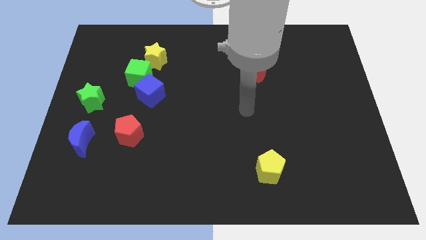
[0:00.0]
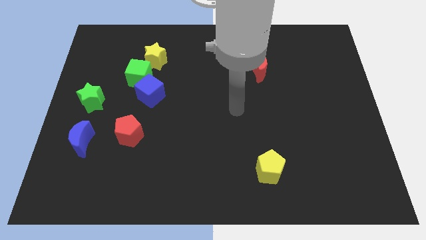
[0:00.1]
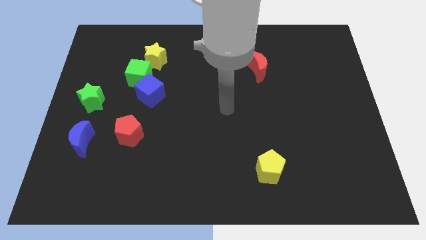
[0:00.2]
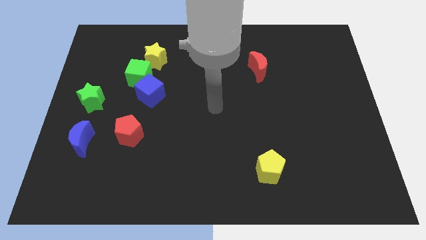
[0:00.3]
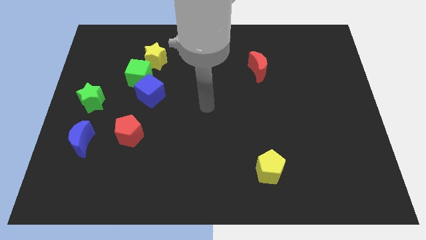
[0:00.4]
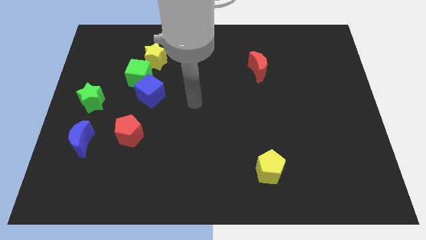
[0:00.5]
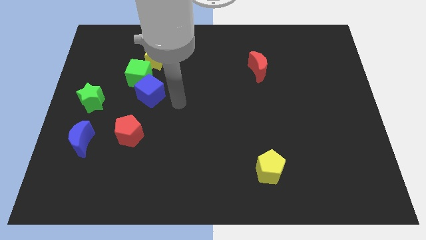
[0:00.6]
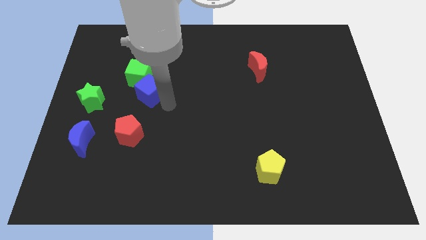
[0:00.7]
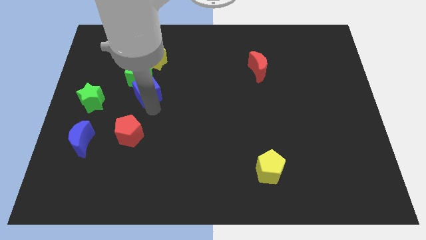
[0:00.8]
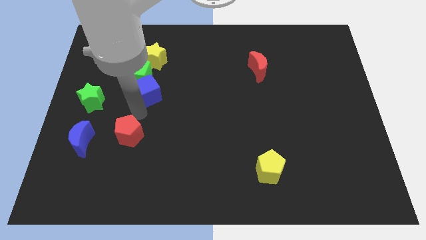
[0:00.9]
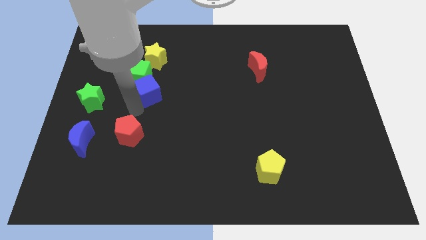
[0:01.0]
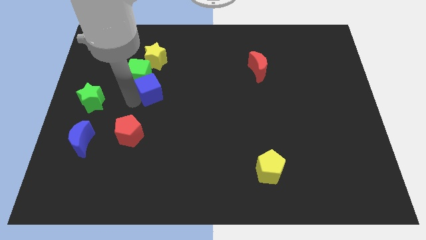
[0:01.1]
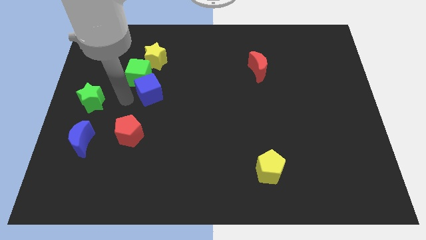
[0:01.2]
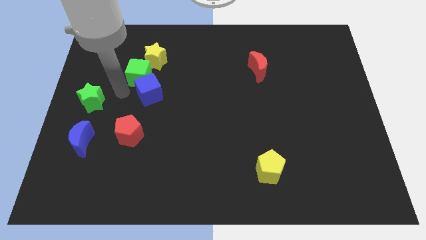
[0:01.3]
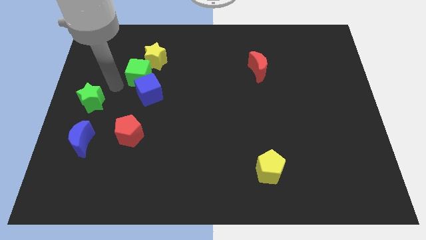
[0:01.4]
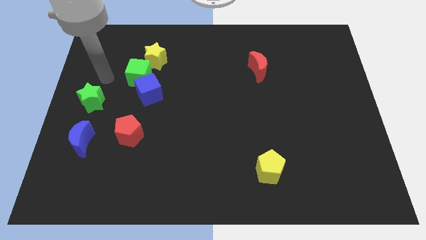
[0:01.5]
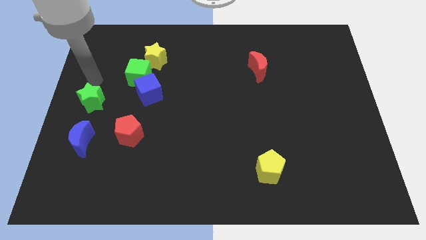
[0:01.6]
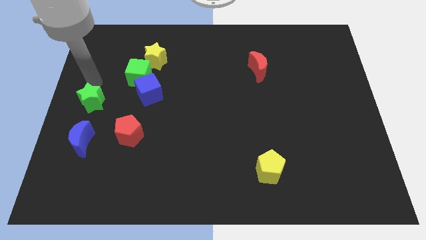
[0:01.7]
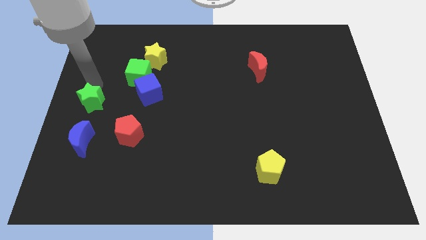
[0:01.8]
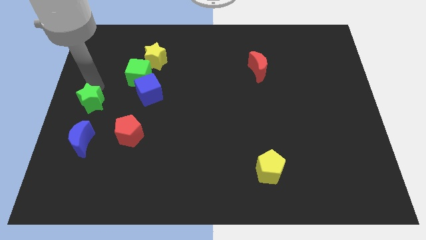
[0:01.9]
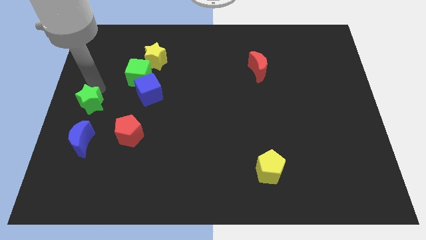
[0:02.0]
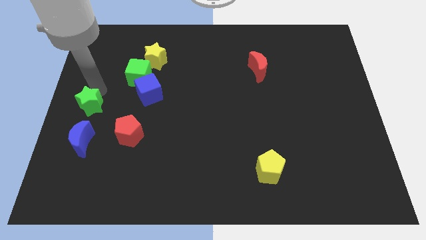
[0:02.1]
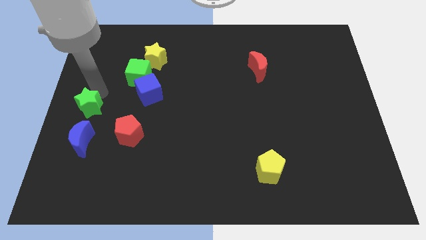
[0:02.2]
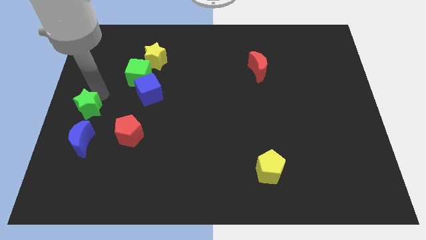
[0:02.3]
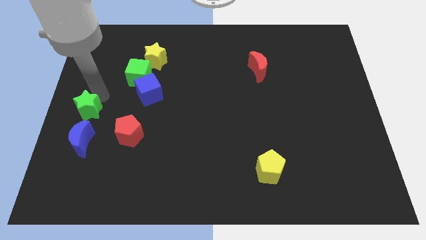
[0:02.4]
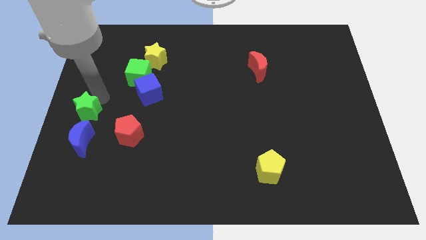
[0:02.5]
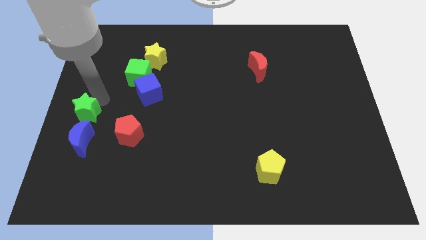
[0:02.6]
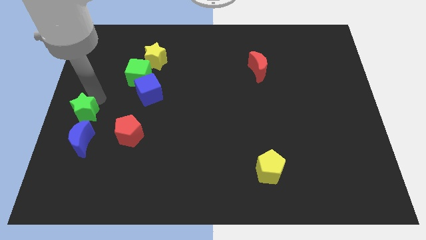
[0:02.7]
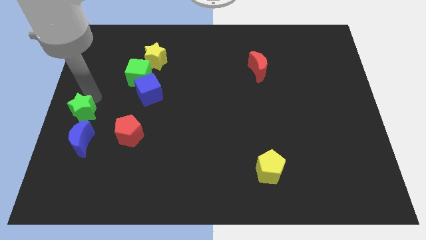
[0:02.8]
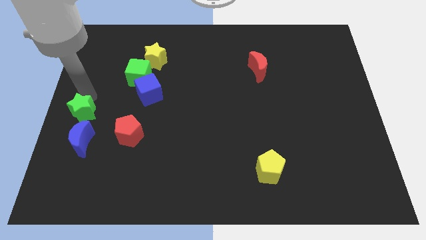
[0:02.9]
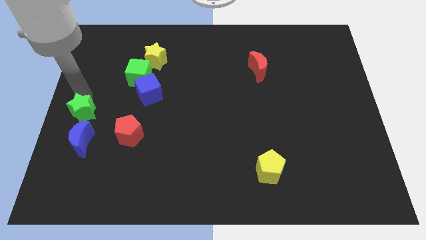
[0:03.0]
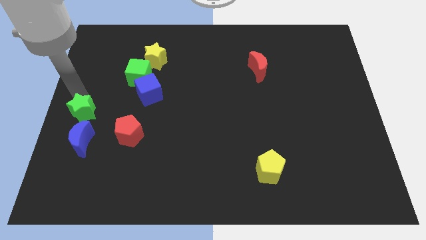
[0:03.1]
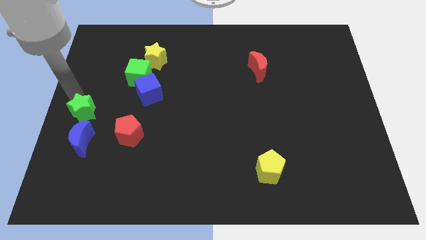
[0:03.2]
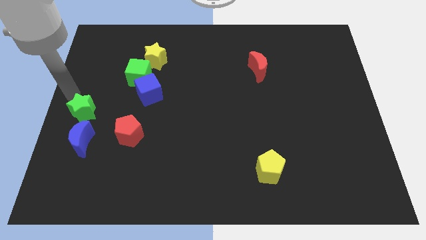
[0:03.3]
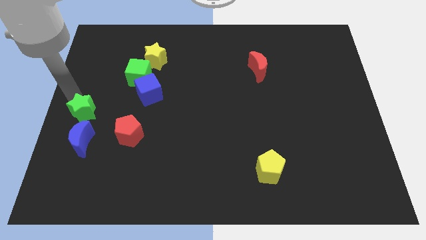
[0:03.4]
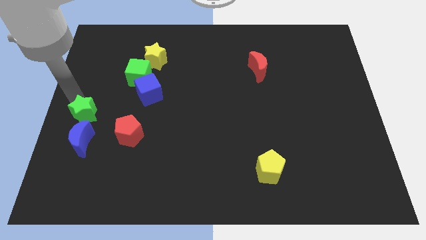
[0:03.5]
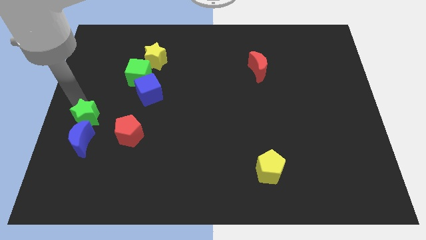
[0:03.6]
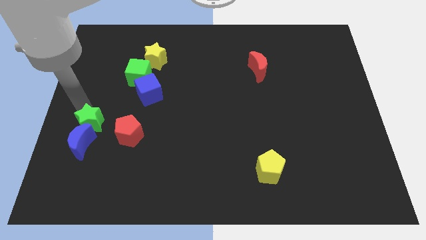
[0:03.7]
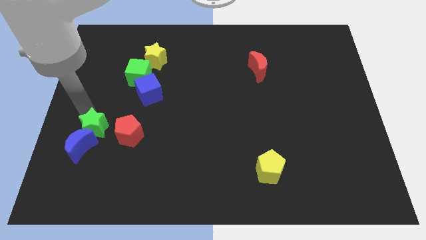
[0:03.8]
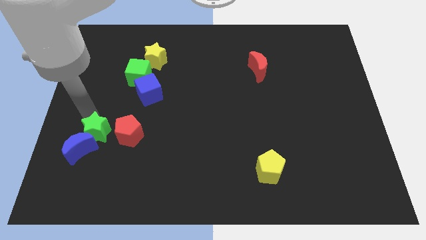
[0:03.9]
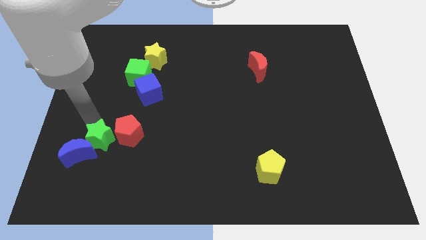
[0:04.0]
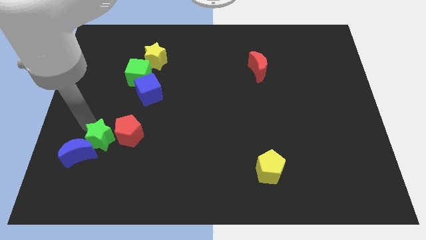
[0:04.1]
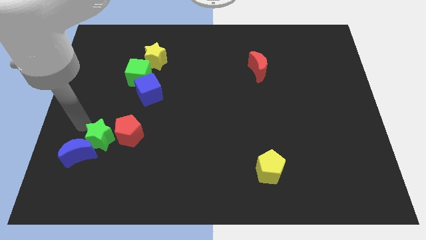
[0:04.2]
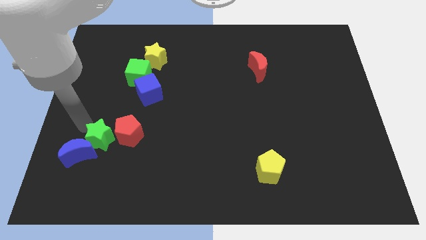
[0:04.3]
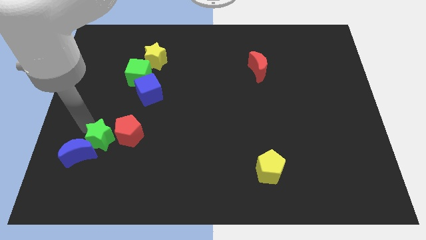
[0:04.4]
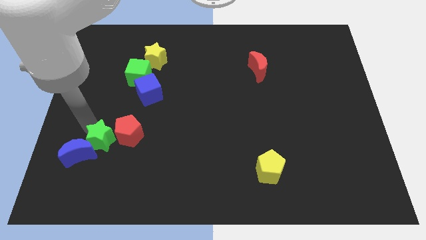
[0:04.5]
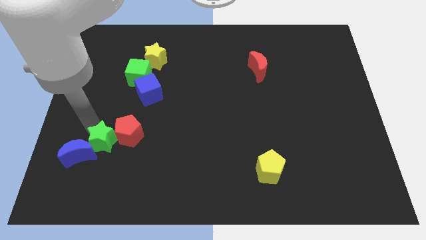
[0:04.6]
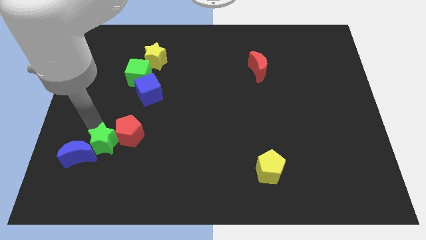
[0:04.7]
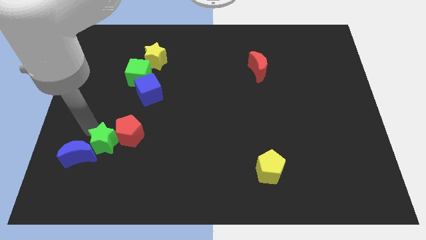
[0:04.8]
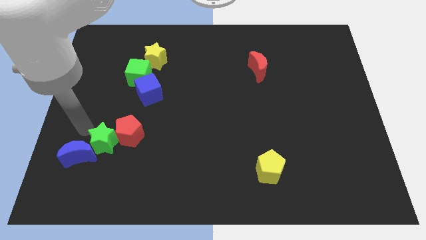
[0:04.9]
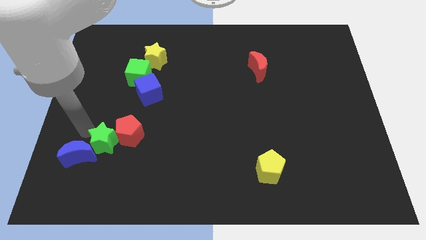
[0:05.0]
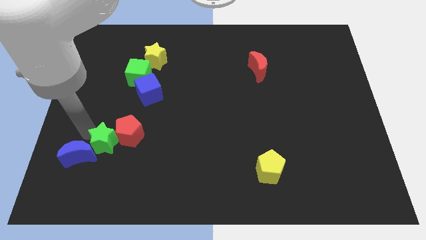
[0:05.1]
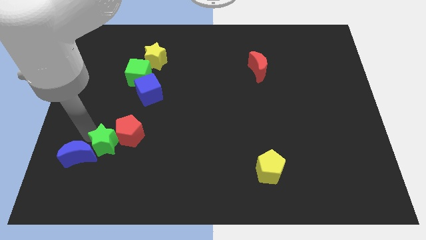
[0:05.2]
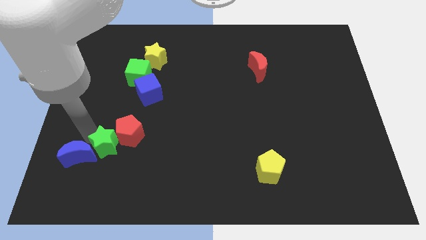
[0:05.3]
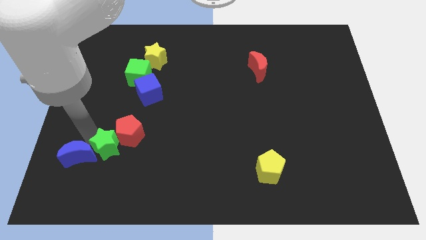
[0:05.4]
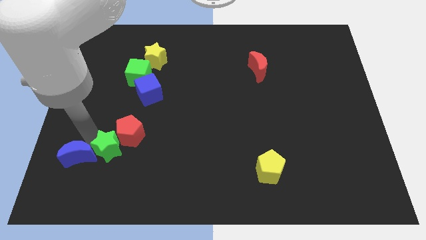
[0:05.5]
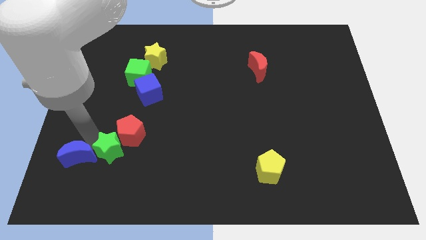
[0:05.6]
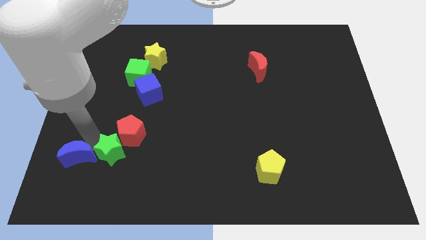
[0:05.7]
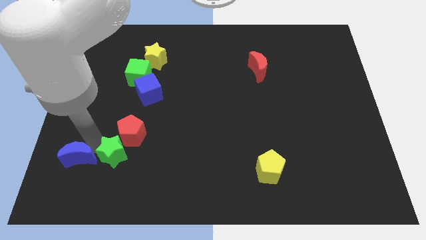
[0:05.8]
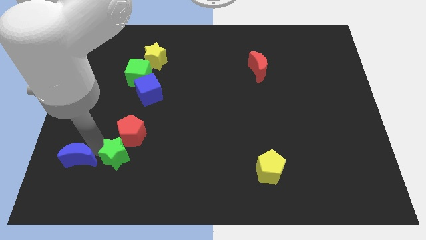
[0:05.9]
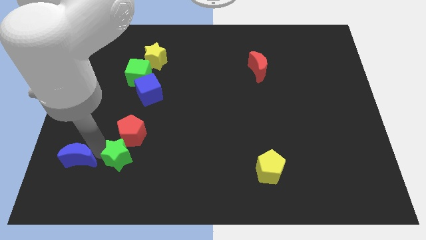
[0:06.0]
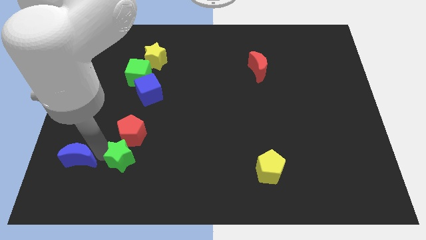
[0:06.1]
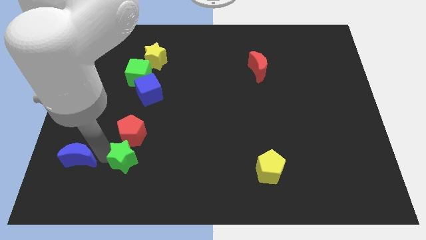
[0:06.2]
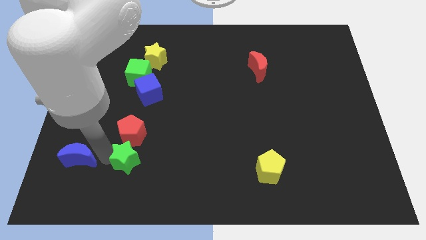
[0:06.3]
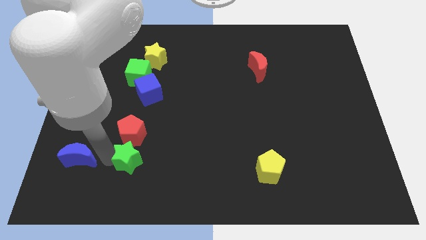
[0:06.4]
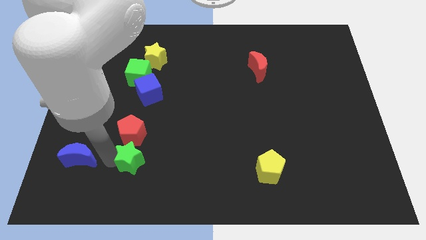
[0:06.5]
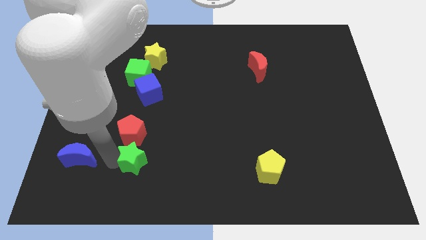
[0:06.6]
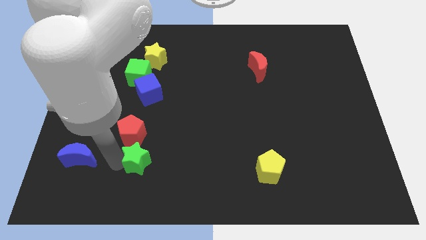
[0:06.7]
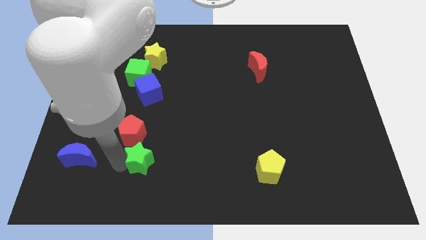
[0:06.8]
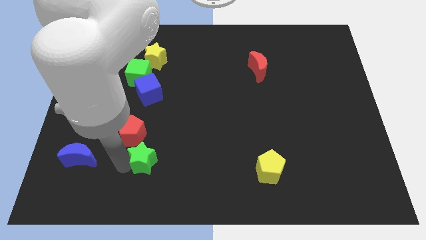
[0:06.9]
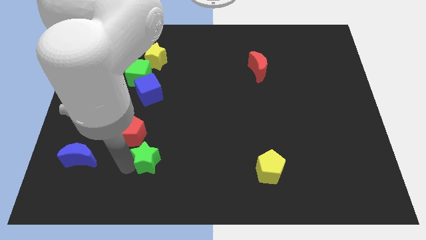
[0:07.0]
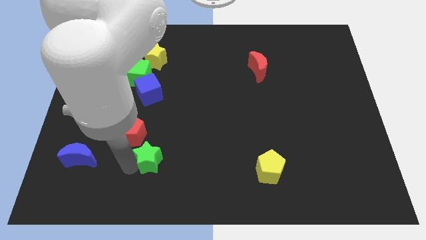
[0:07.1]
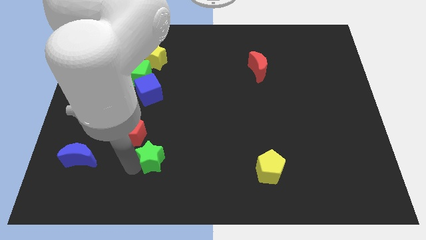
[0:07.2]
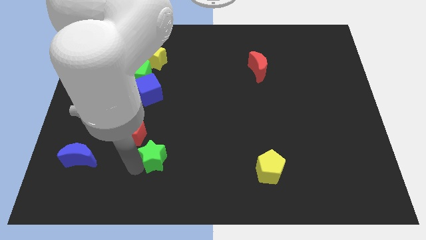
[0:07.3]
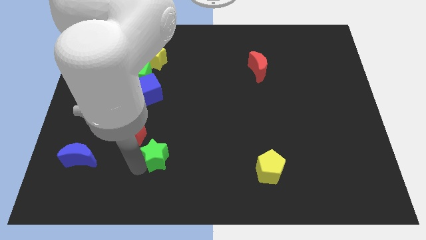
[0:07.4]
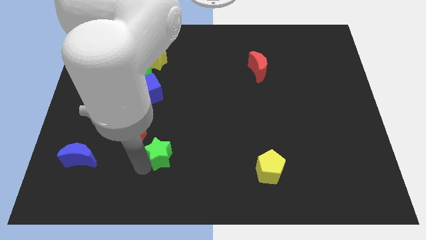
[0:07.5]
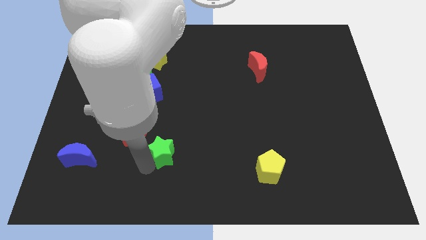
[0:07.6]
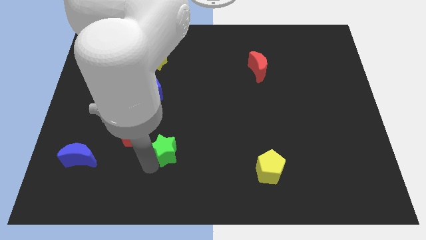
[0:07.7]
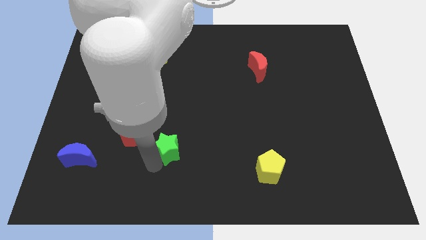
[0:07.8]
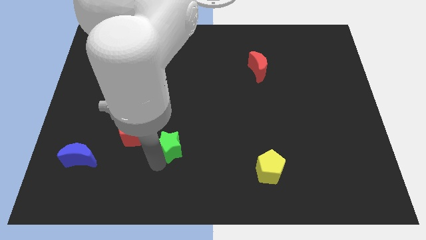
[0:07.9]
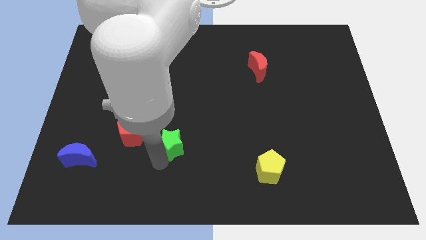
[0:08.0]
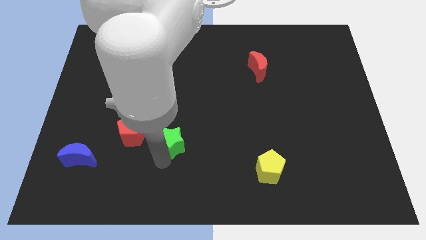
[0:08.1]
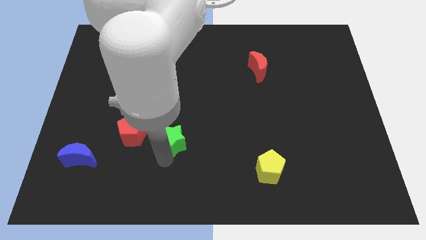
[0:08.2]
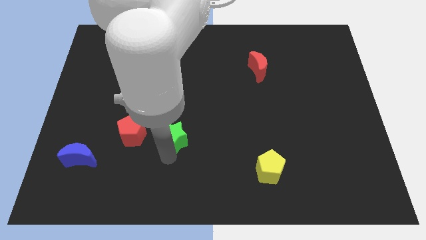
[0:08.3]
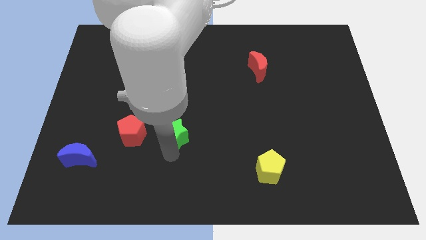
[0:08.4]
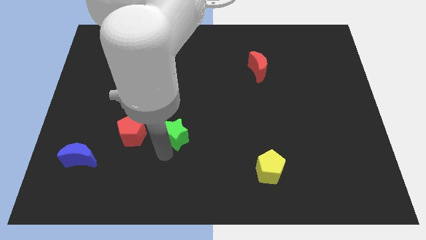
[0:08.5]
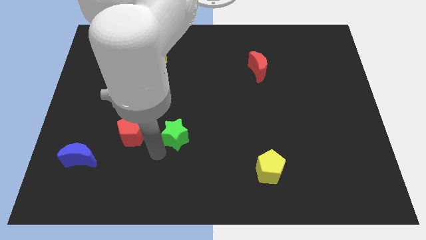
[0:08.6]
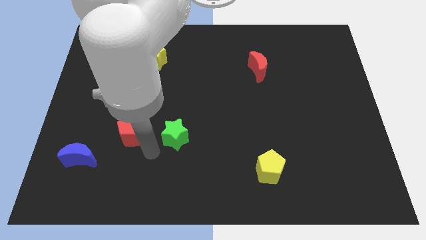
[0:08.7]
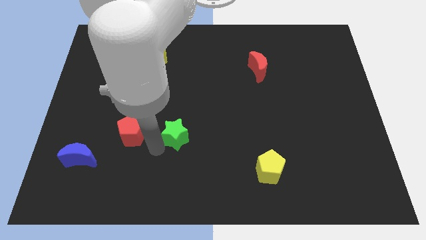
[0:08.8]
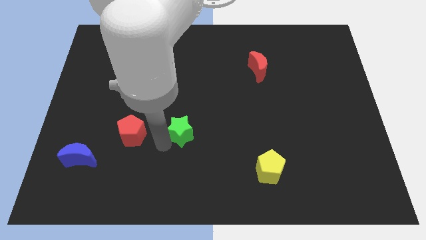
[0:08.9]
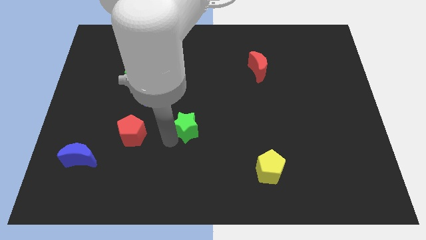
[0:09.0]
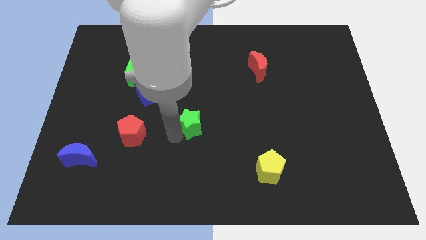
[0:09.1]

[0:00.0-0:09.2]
slide the green star right
